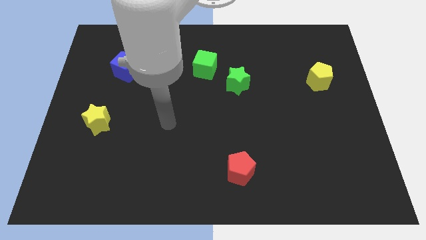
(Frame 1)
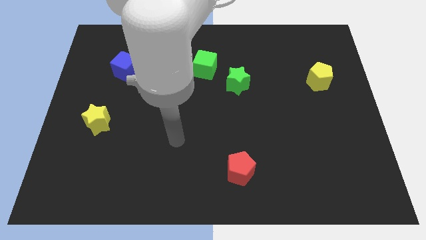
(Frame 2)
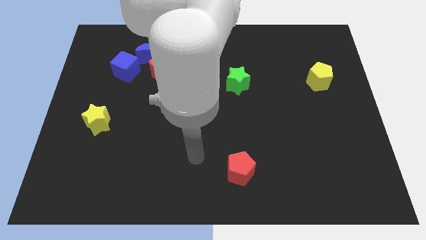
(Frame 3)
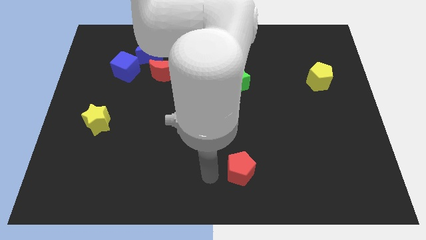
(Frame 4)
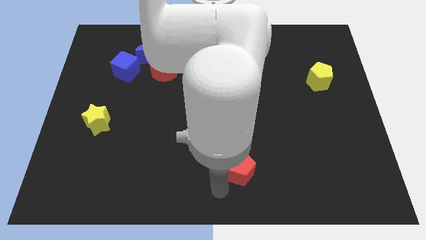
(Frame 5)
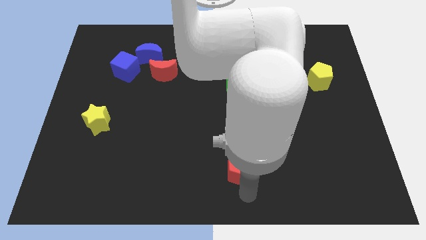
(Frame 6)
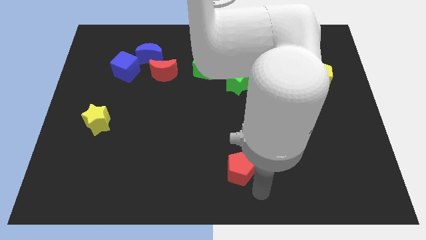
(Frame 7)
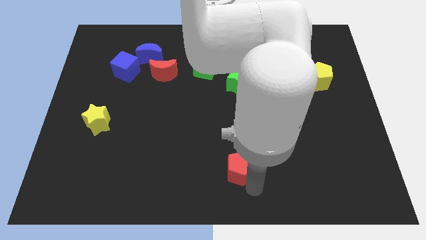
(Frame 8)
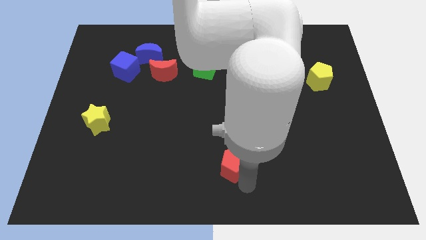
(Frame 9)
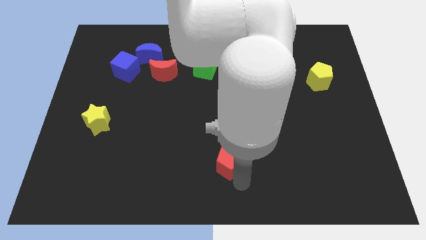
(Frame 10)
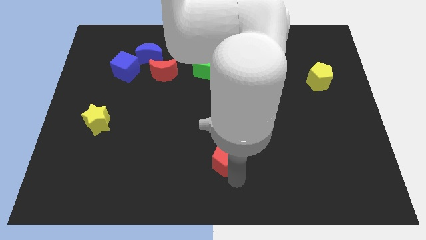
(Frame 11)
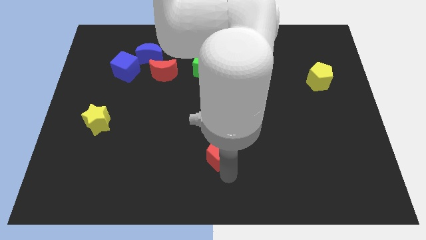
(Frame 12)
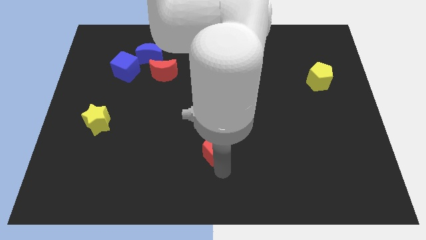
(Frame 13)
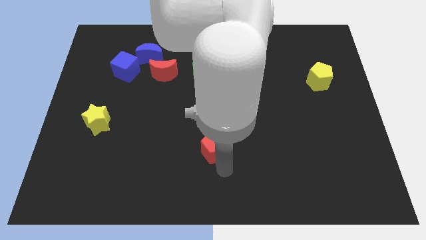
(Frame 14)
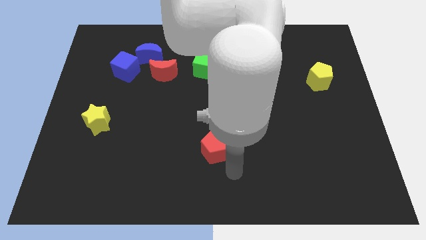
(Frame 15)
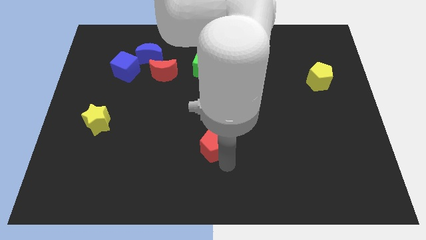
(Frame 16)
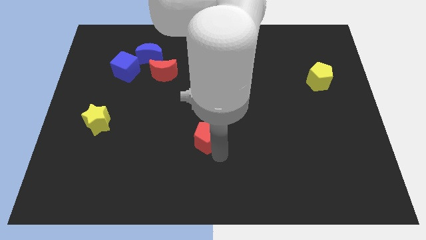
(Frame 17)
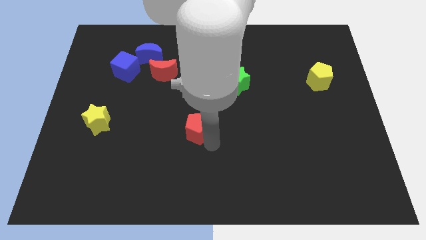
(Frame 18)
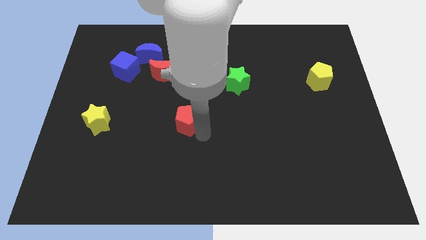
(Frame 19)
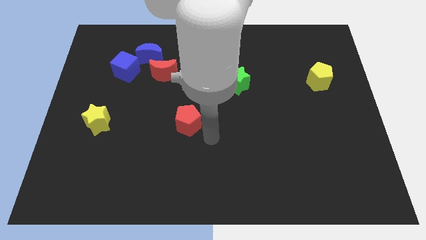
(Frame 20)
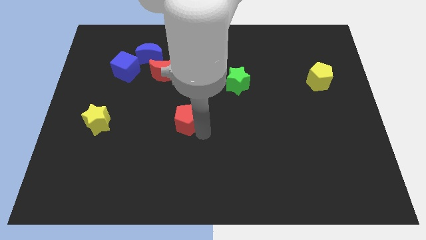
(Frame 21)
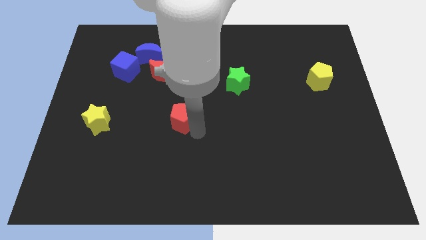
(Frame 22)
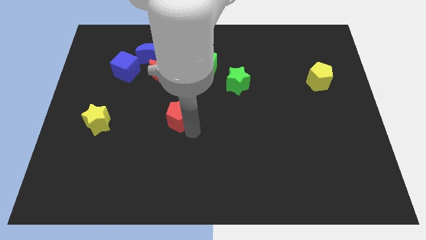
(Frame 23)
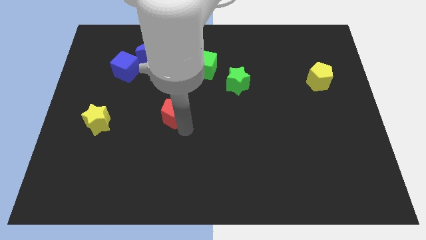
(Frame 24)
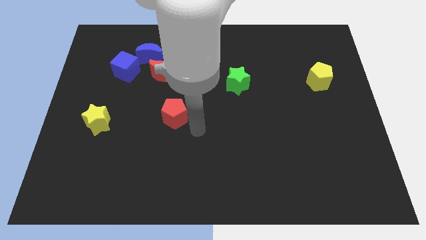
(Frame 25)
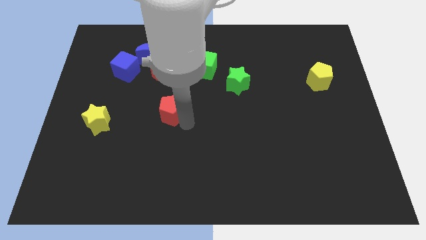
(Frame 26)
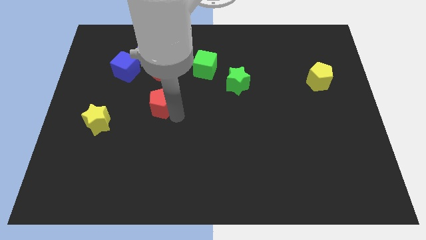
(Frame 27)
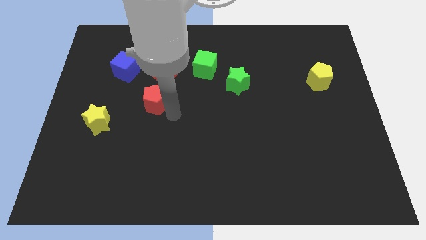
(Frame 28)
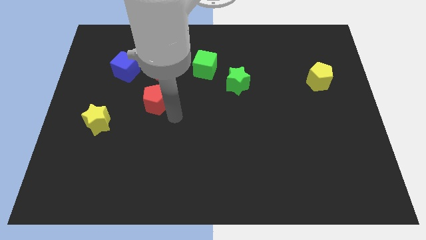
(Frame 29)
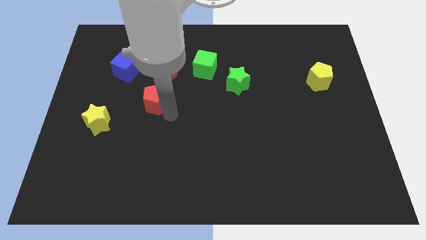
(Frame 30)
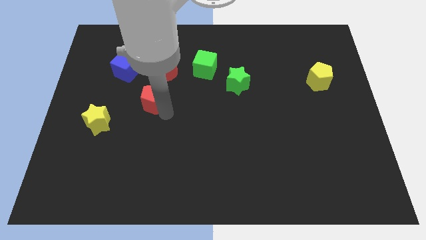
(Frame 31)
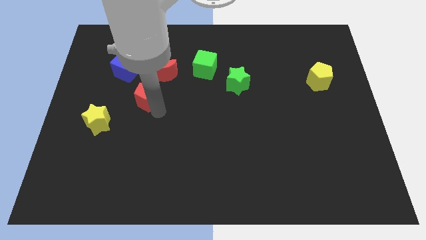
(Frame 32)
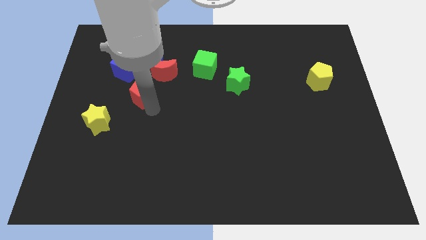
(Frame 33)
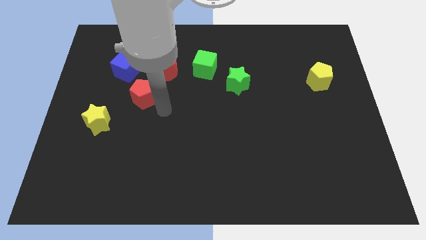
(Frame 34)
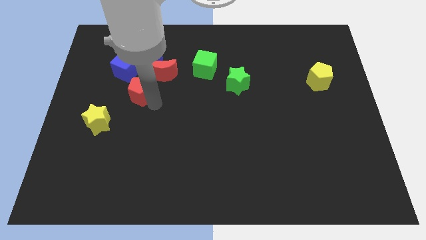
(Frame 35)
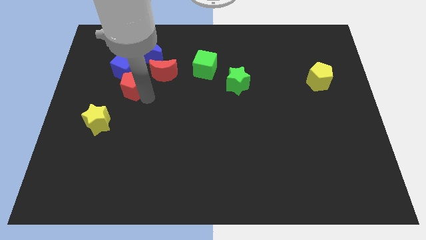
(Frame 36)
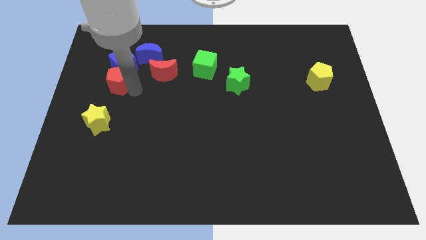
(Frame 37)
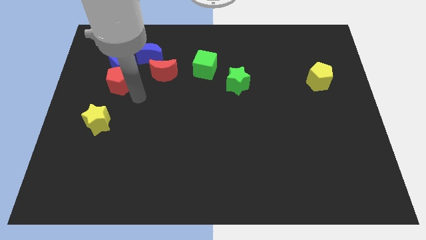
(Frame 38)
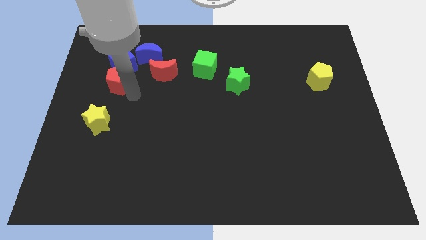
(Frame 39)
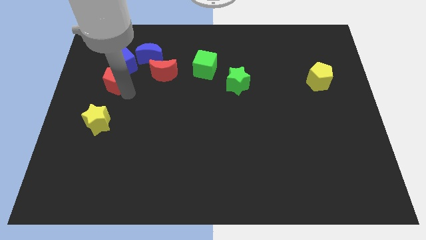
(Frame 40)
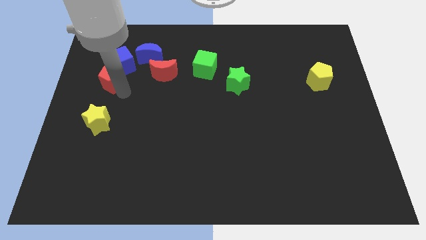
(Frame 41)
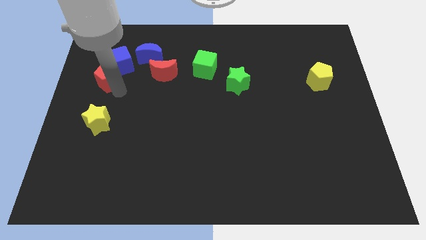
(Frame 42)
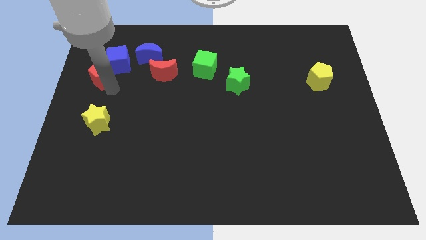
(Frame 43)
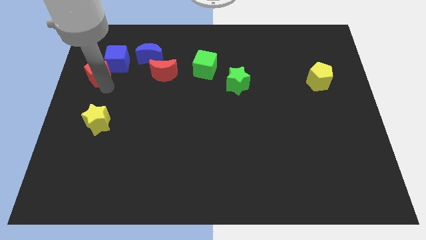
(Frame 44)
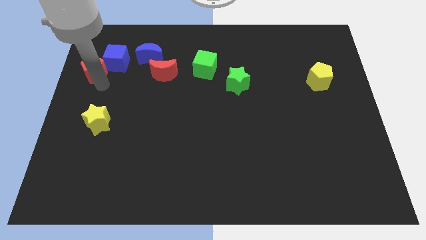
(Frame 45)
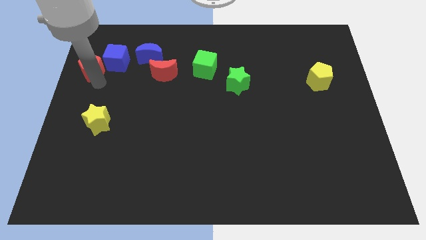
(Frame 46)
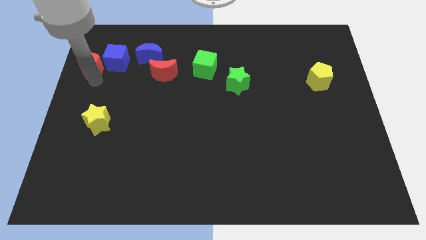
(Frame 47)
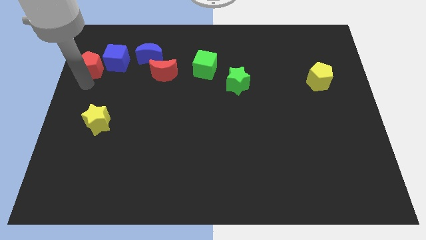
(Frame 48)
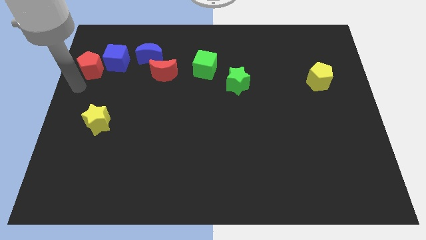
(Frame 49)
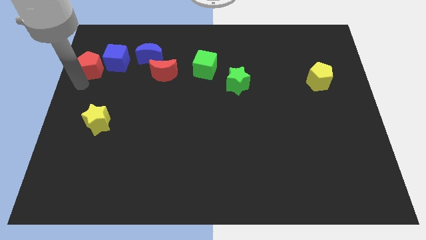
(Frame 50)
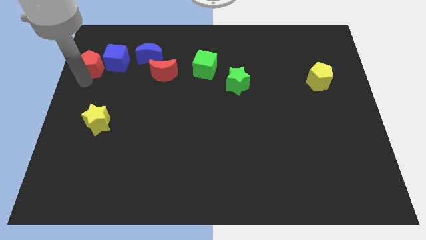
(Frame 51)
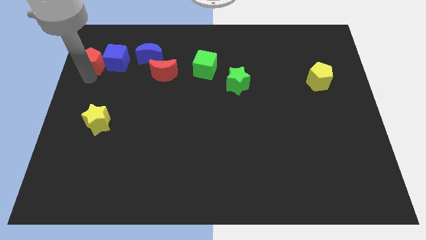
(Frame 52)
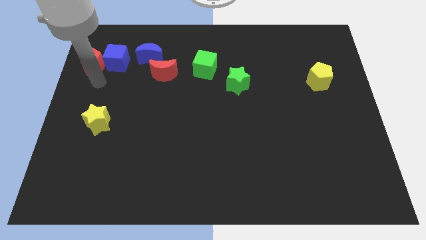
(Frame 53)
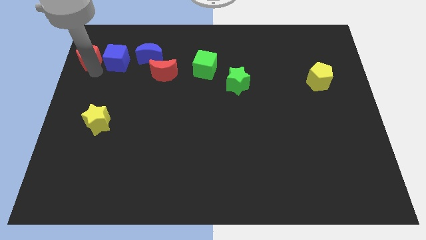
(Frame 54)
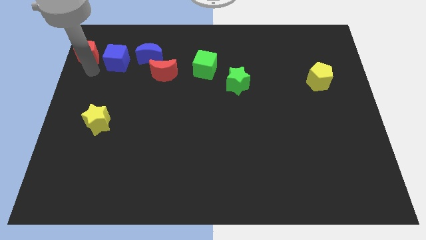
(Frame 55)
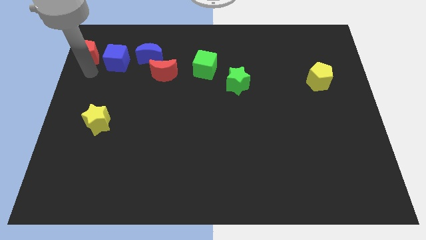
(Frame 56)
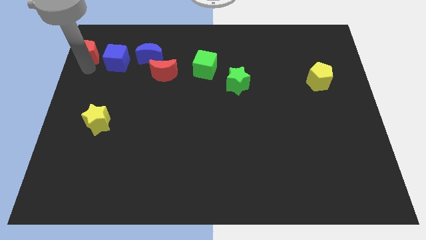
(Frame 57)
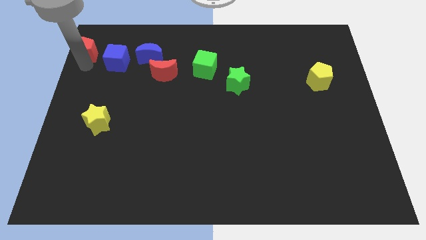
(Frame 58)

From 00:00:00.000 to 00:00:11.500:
slide the red pentagon to the top left of the board

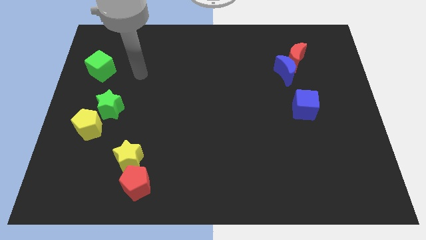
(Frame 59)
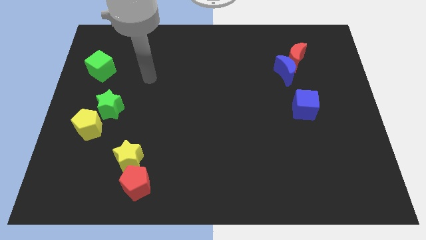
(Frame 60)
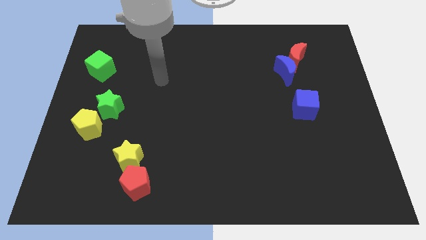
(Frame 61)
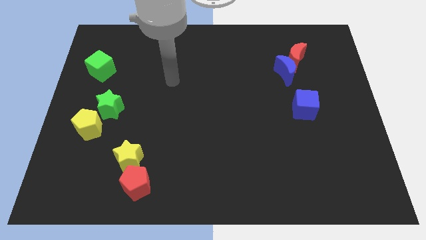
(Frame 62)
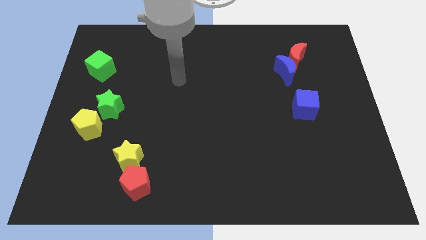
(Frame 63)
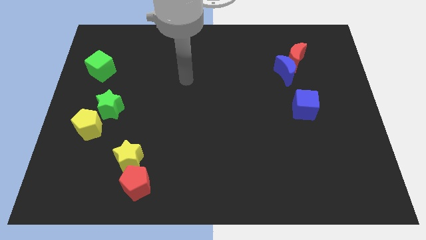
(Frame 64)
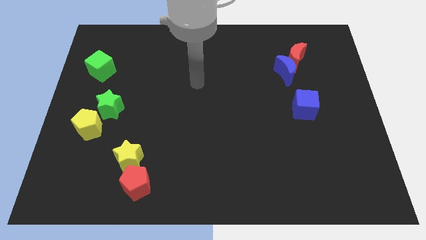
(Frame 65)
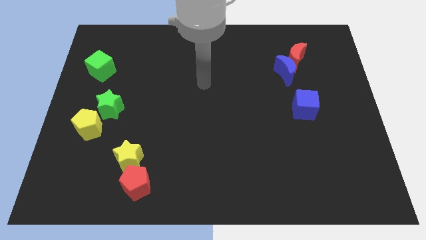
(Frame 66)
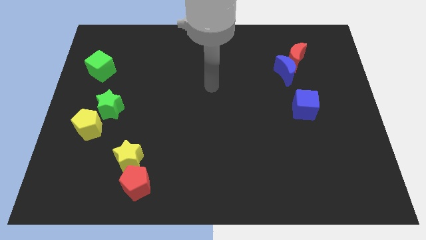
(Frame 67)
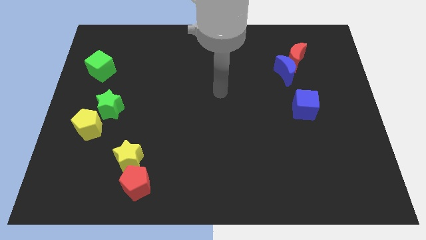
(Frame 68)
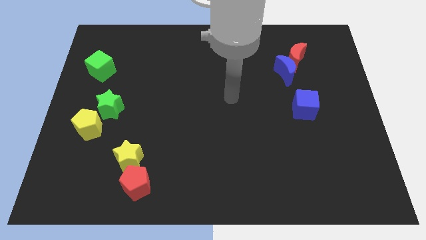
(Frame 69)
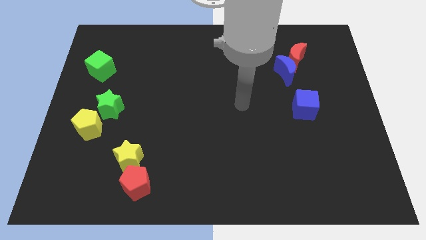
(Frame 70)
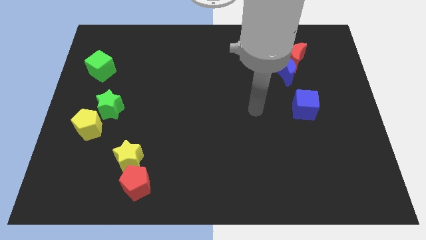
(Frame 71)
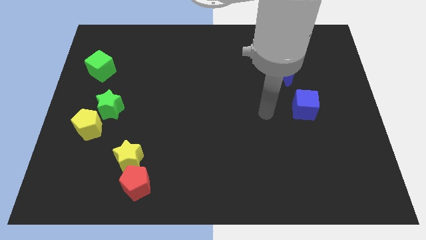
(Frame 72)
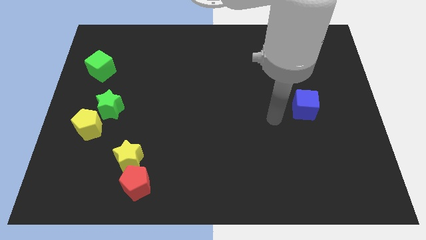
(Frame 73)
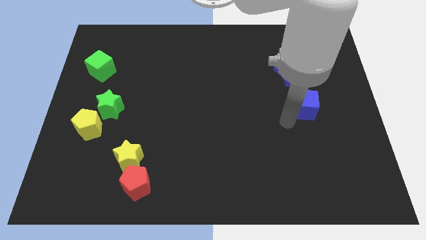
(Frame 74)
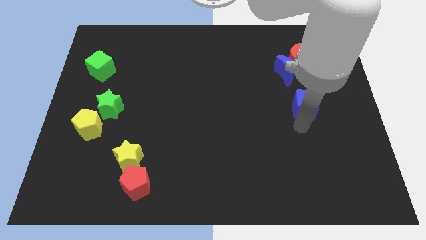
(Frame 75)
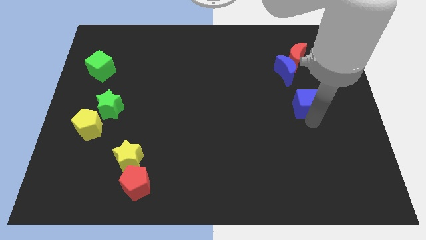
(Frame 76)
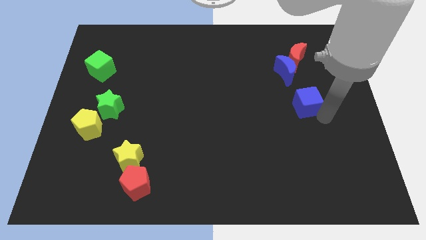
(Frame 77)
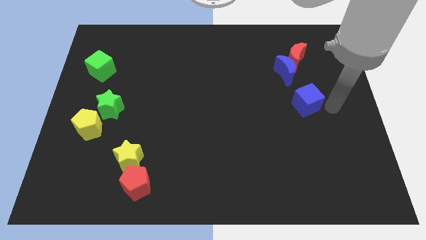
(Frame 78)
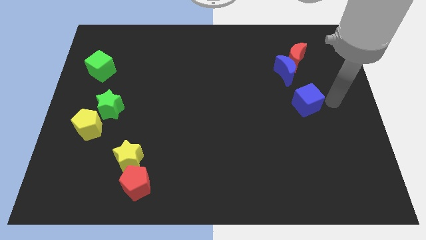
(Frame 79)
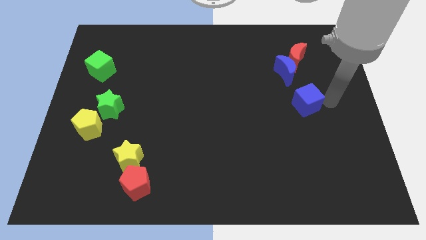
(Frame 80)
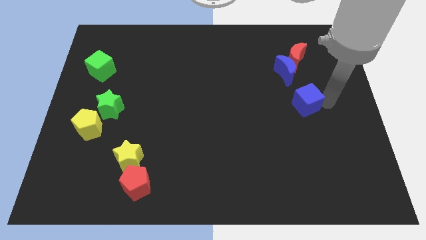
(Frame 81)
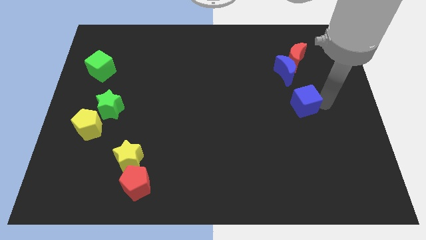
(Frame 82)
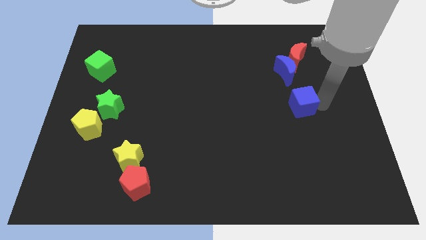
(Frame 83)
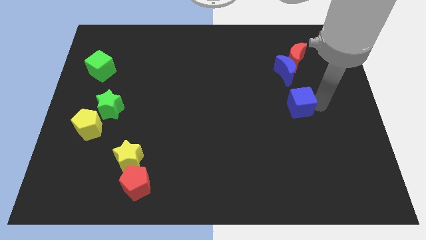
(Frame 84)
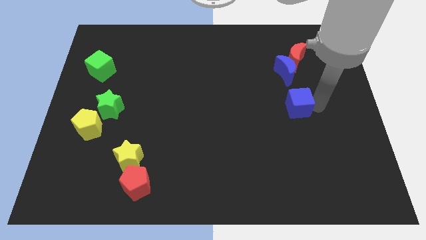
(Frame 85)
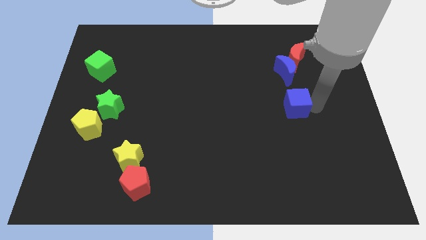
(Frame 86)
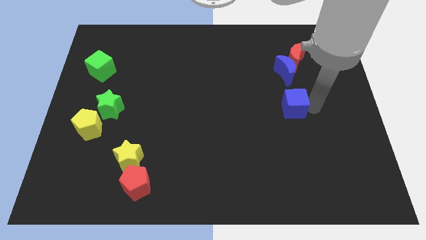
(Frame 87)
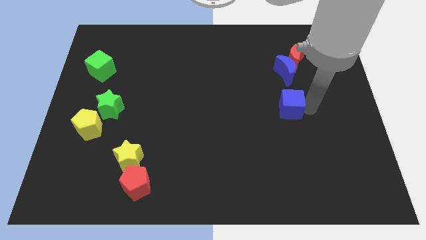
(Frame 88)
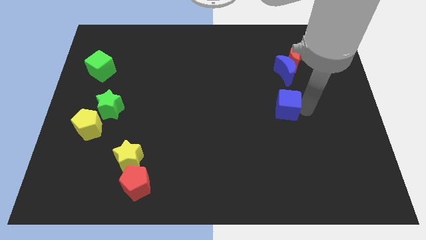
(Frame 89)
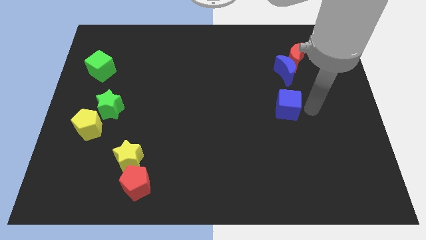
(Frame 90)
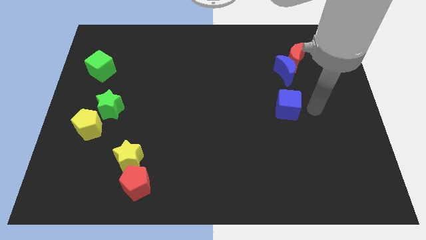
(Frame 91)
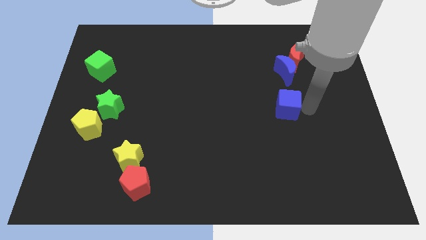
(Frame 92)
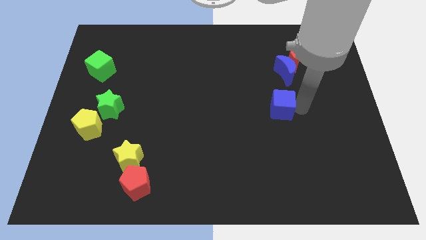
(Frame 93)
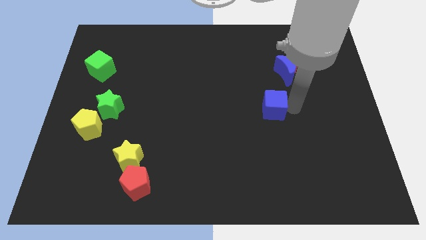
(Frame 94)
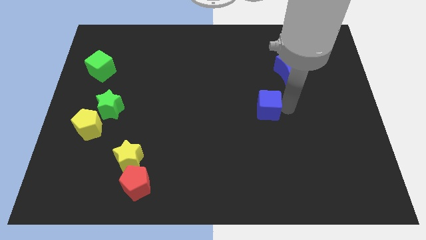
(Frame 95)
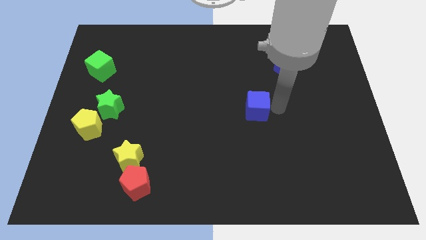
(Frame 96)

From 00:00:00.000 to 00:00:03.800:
slide the blue cube to the middle
